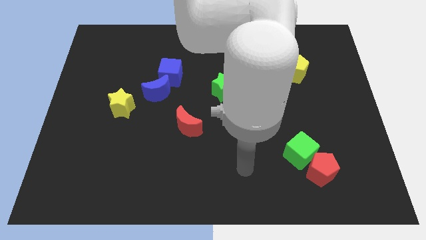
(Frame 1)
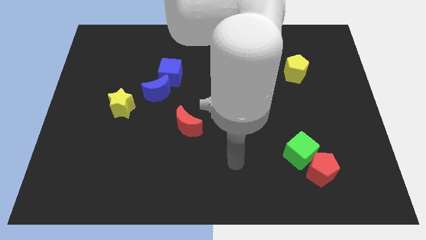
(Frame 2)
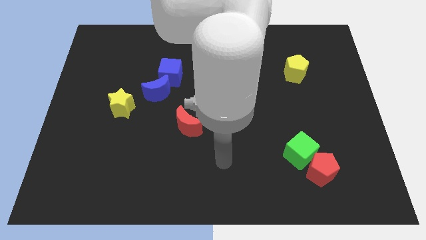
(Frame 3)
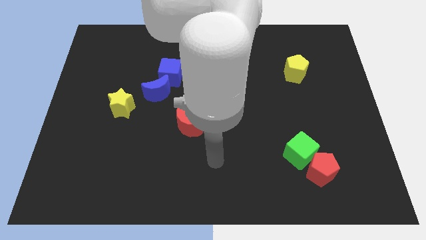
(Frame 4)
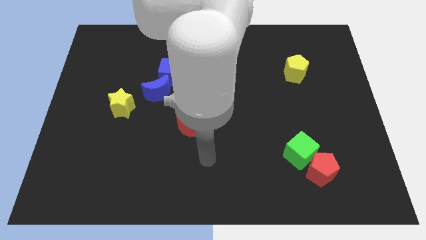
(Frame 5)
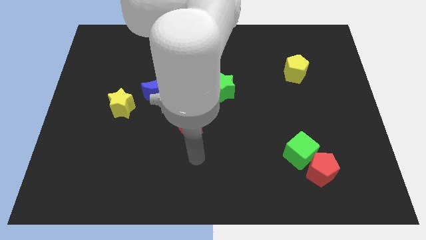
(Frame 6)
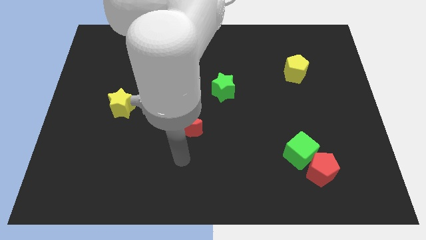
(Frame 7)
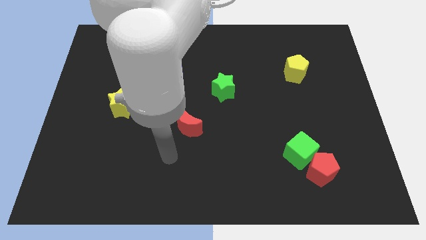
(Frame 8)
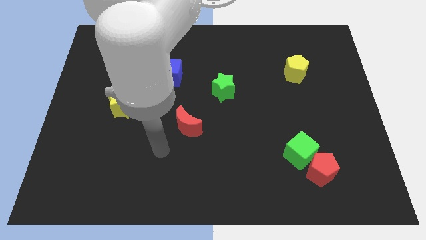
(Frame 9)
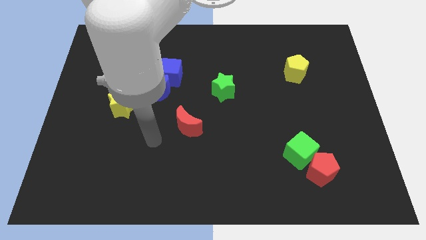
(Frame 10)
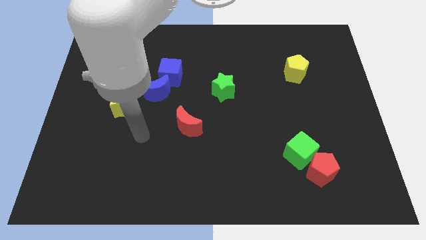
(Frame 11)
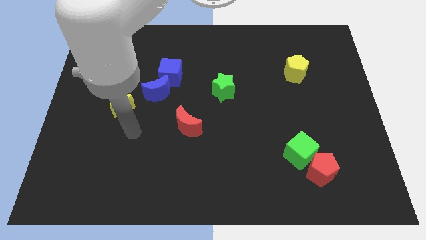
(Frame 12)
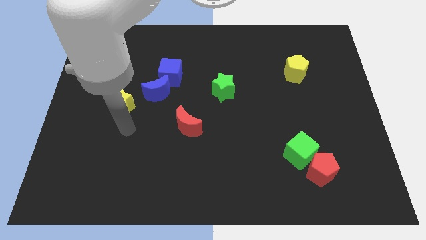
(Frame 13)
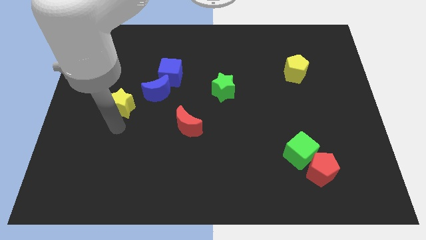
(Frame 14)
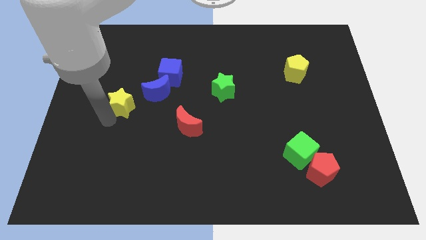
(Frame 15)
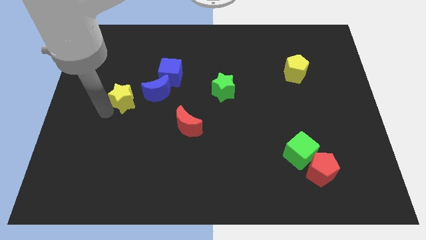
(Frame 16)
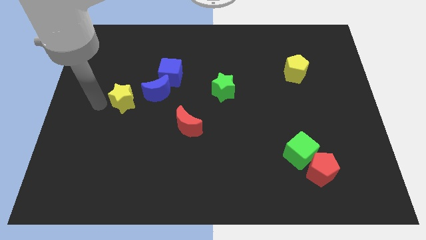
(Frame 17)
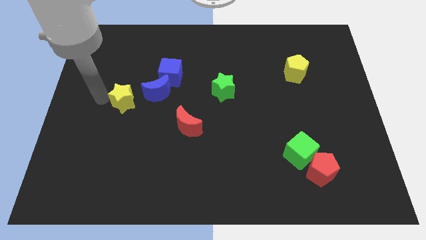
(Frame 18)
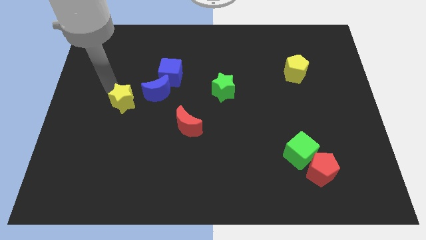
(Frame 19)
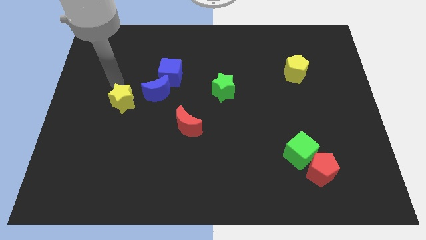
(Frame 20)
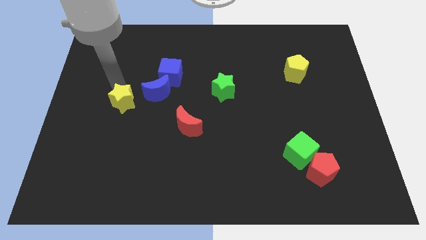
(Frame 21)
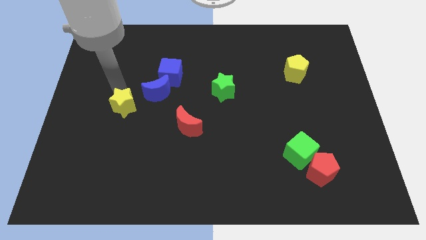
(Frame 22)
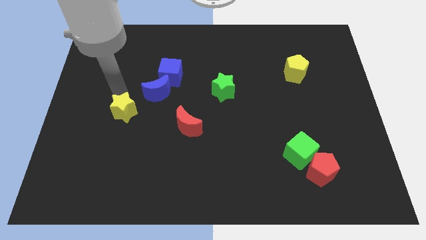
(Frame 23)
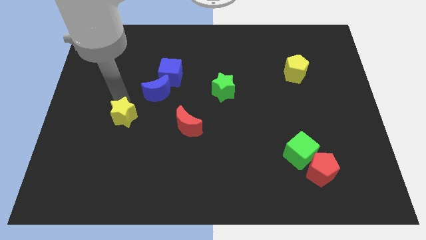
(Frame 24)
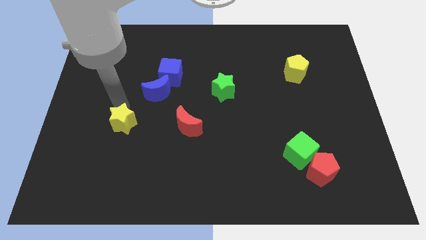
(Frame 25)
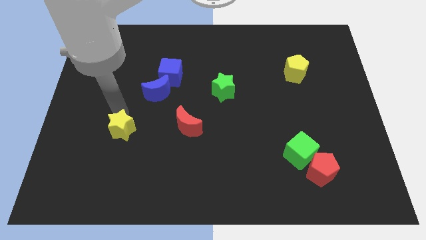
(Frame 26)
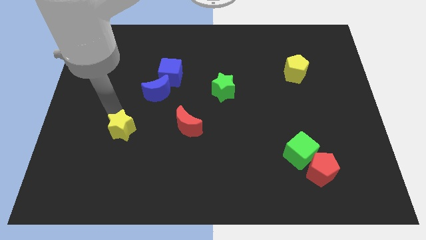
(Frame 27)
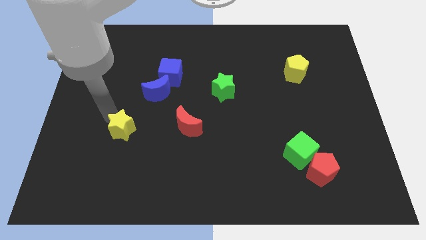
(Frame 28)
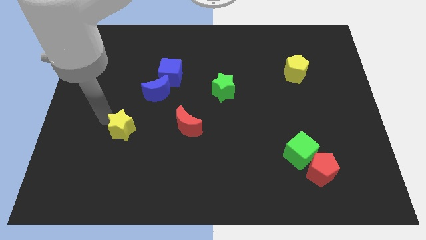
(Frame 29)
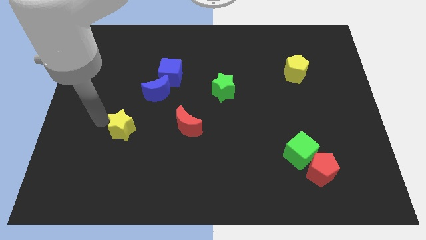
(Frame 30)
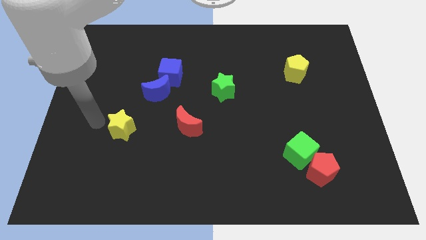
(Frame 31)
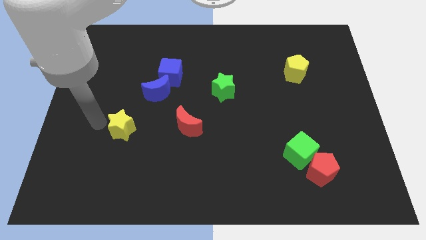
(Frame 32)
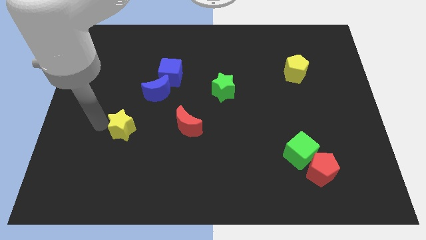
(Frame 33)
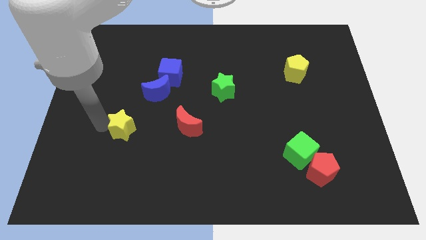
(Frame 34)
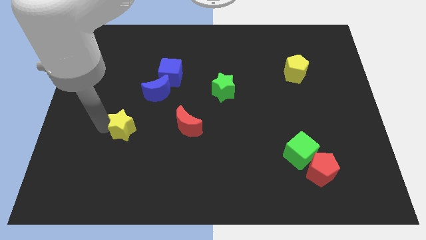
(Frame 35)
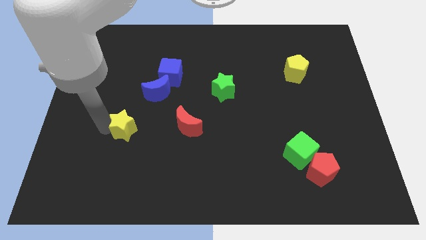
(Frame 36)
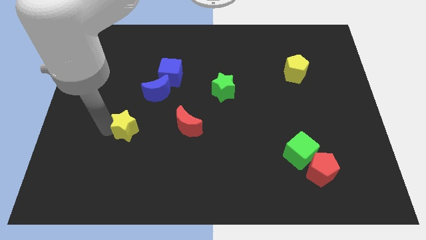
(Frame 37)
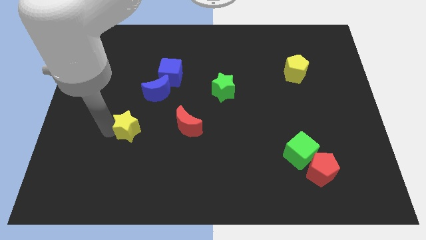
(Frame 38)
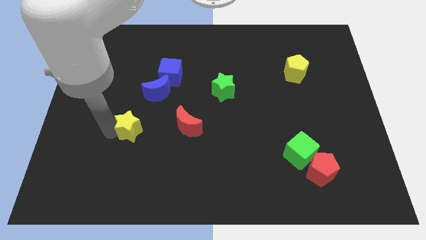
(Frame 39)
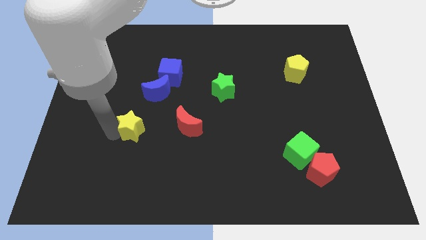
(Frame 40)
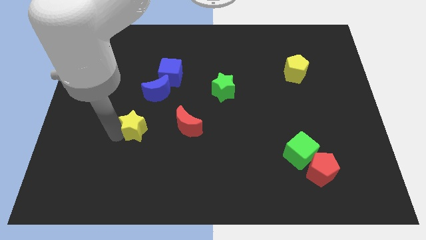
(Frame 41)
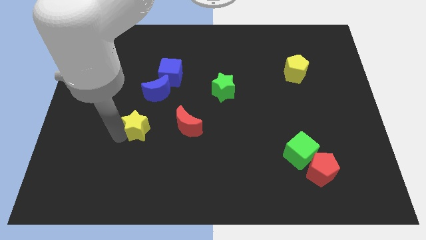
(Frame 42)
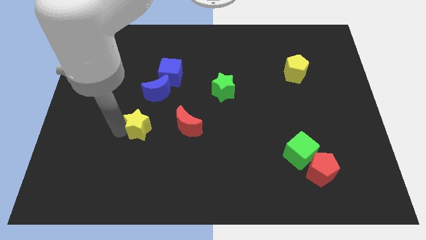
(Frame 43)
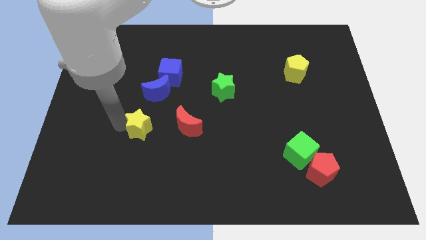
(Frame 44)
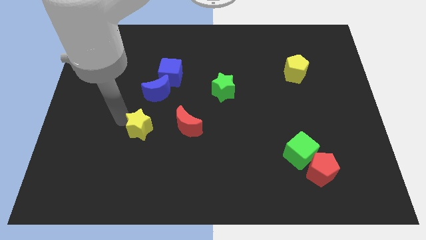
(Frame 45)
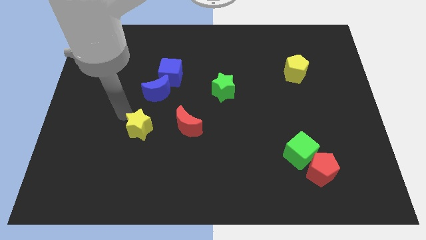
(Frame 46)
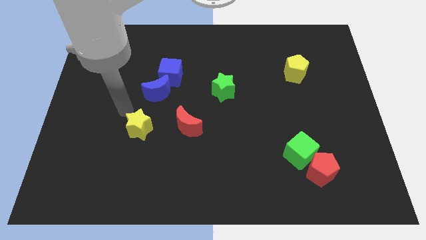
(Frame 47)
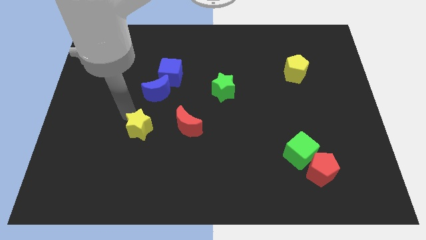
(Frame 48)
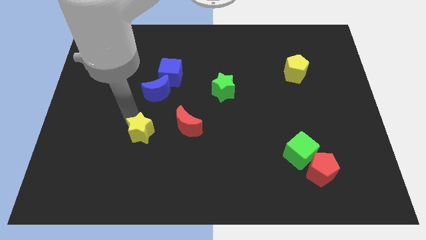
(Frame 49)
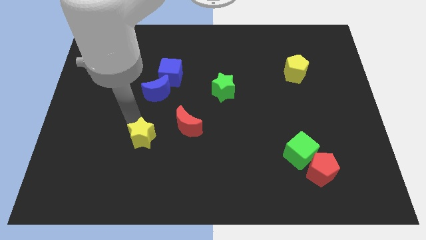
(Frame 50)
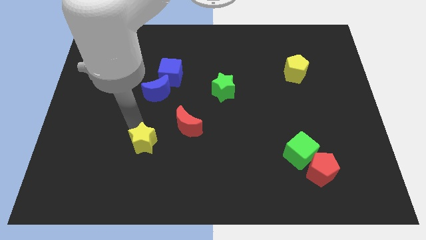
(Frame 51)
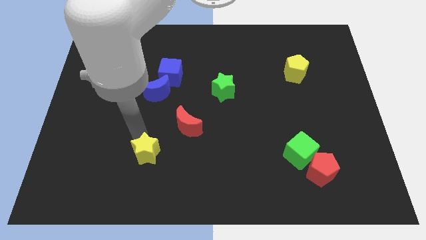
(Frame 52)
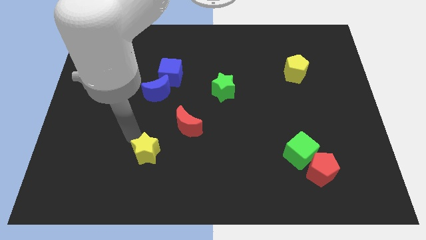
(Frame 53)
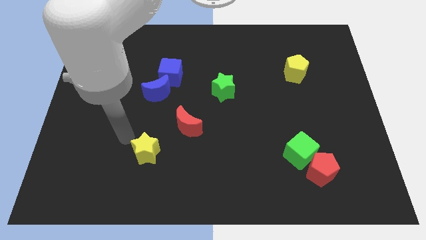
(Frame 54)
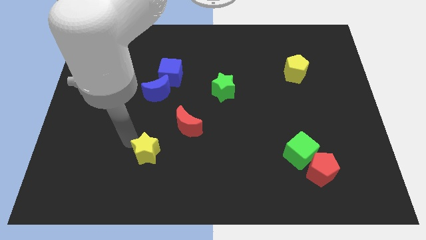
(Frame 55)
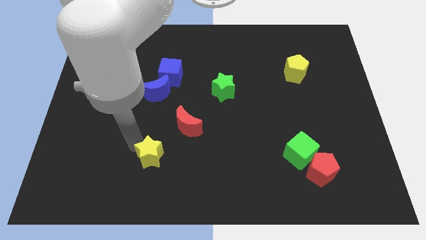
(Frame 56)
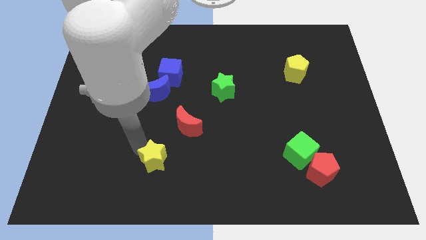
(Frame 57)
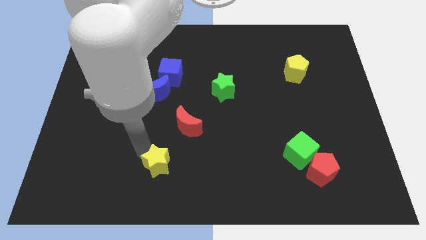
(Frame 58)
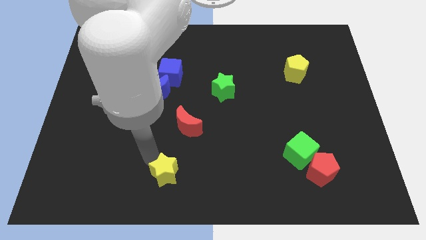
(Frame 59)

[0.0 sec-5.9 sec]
push the yellow star to the bottom
